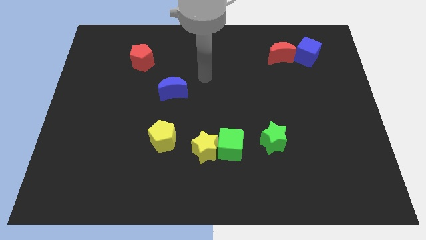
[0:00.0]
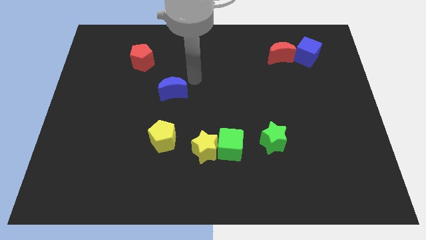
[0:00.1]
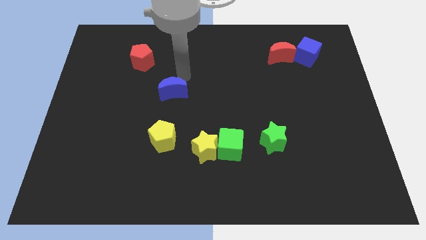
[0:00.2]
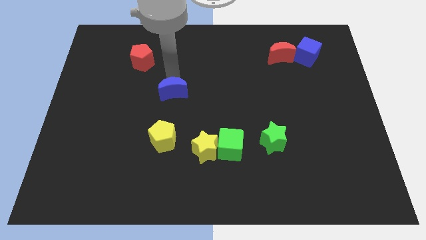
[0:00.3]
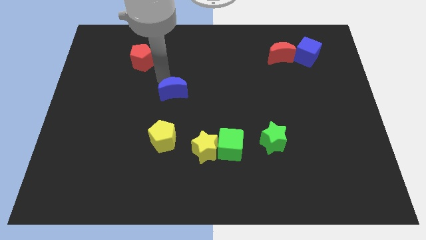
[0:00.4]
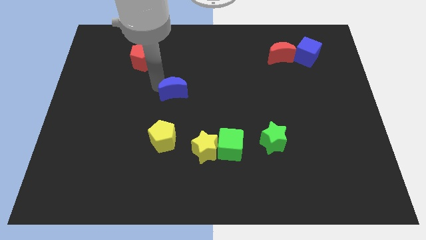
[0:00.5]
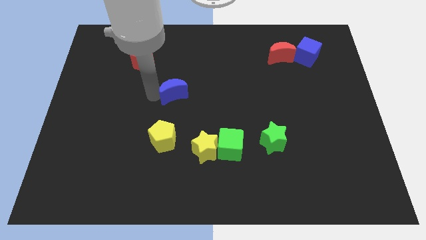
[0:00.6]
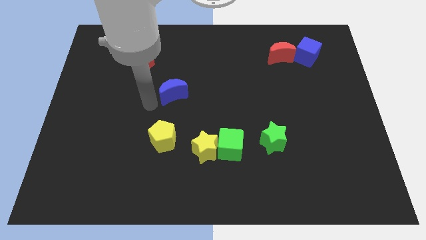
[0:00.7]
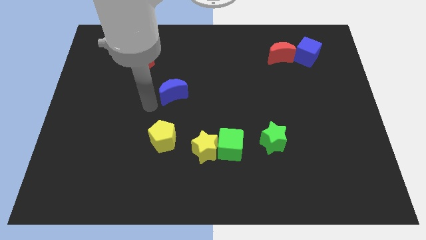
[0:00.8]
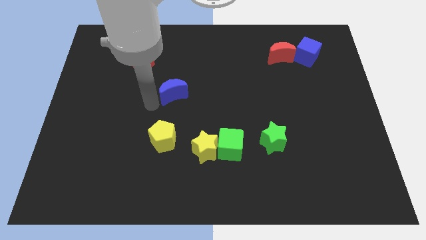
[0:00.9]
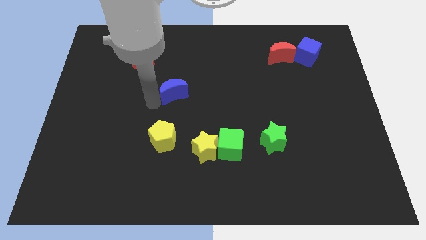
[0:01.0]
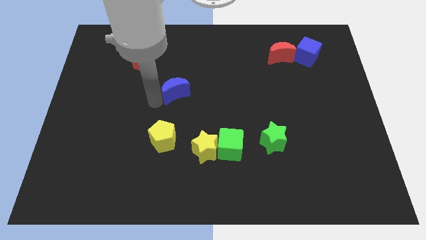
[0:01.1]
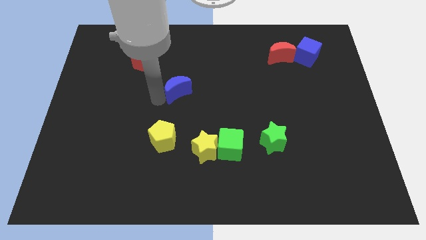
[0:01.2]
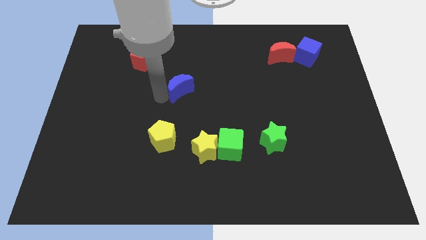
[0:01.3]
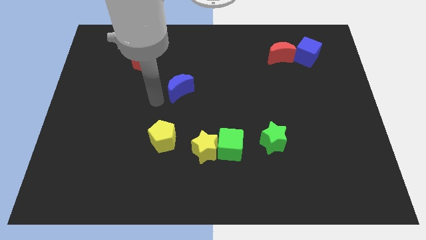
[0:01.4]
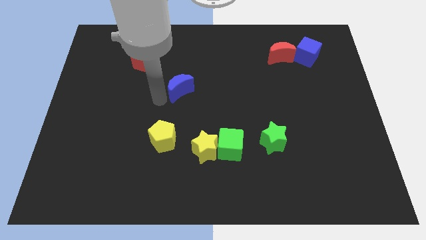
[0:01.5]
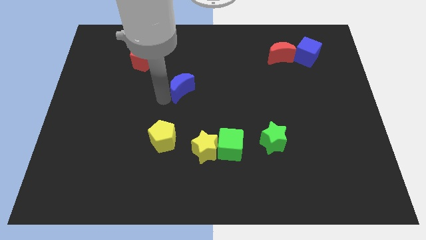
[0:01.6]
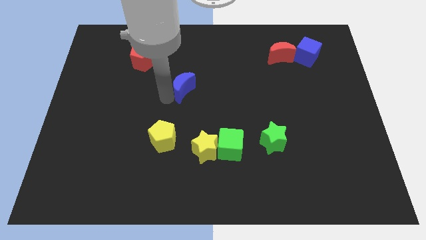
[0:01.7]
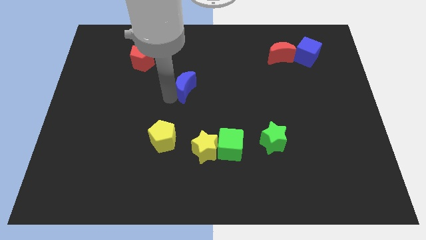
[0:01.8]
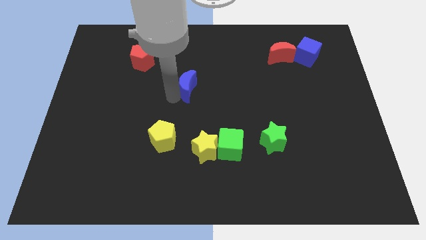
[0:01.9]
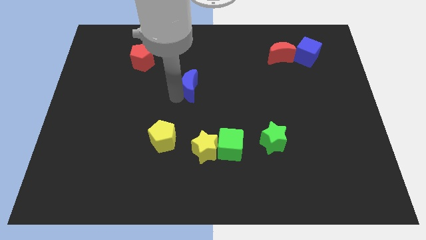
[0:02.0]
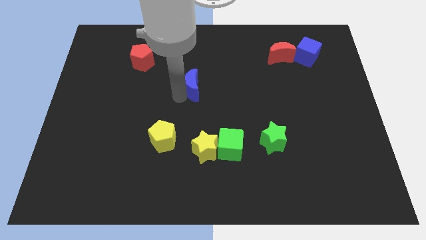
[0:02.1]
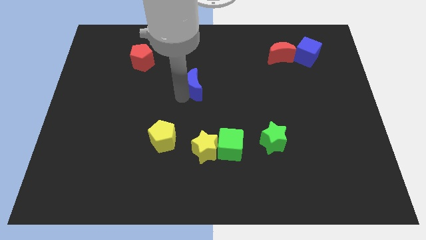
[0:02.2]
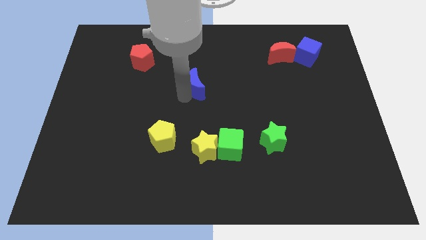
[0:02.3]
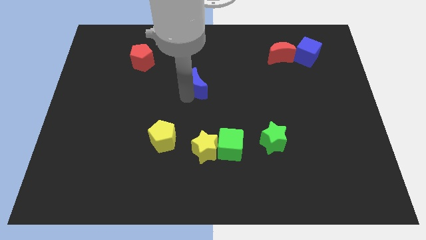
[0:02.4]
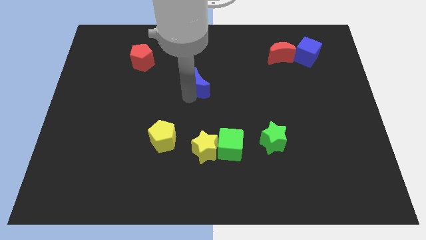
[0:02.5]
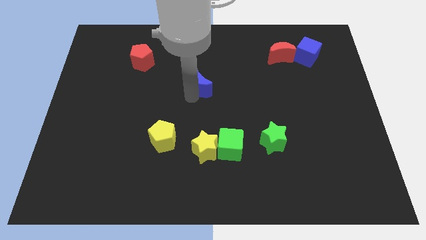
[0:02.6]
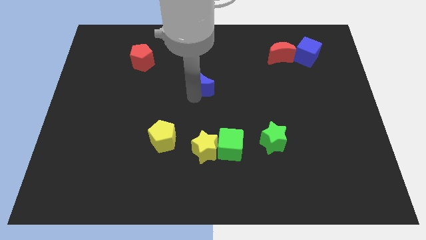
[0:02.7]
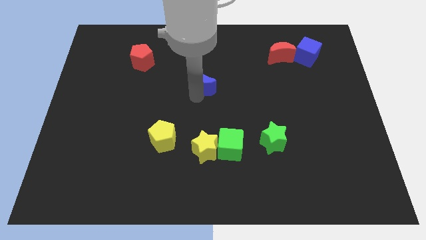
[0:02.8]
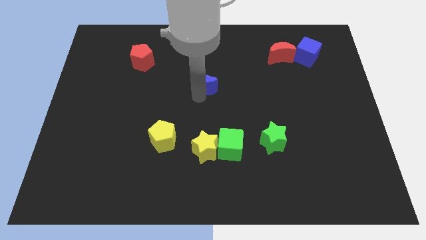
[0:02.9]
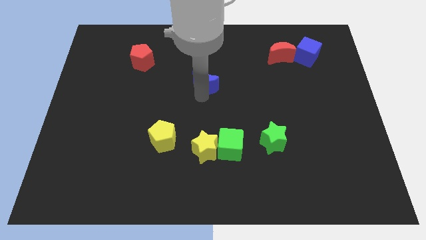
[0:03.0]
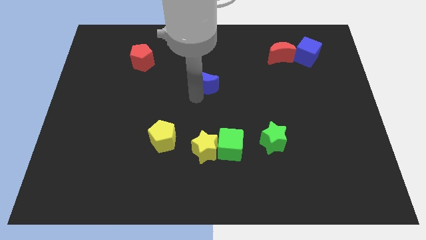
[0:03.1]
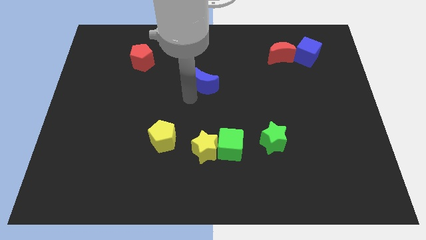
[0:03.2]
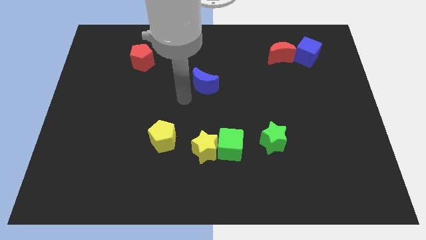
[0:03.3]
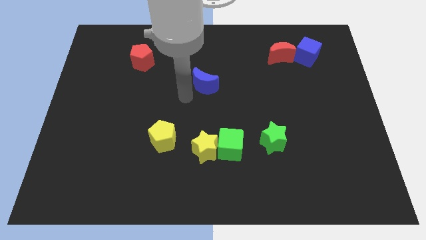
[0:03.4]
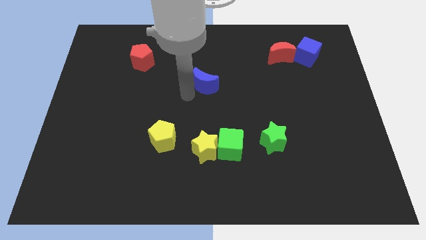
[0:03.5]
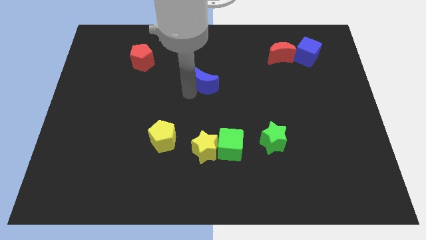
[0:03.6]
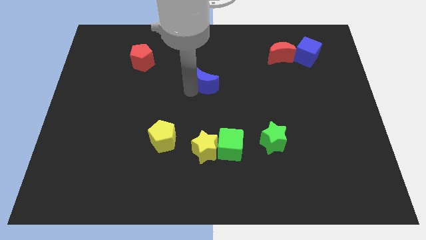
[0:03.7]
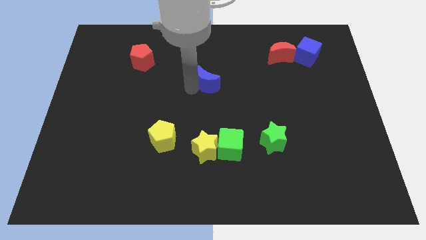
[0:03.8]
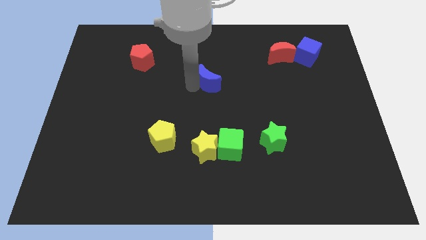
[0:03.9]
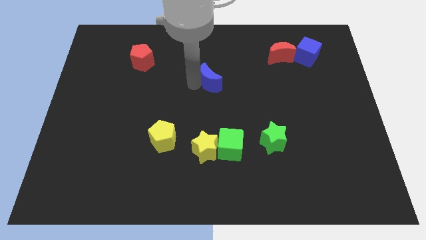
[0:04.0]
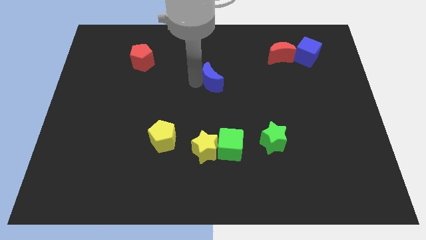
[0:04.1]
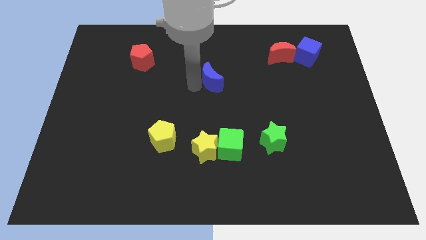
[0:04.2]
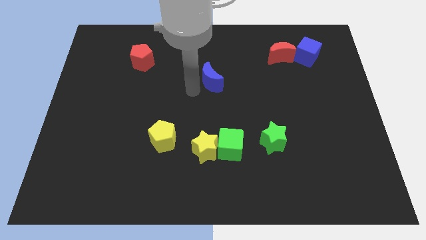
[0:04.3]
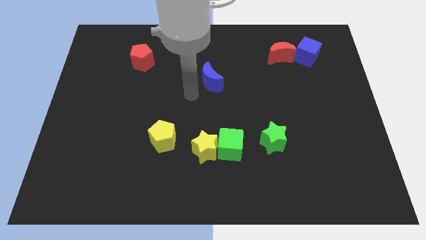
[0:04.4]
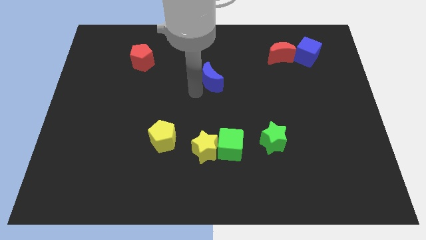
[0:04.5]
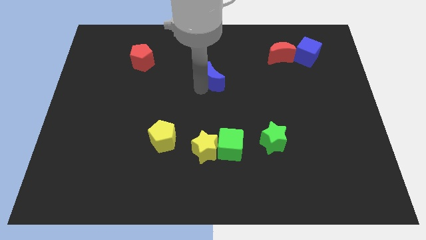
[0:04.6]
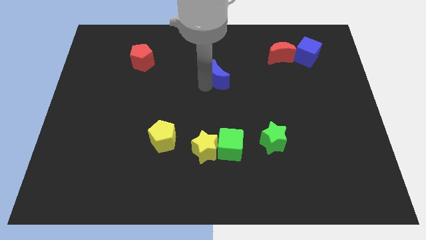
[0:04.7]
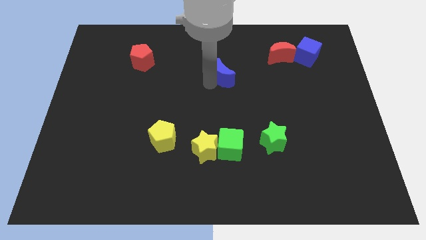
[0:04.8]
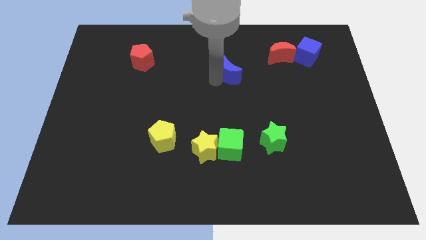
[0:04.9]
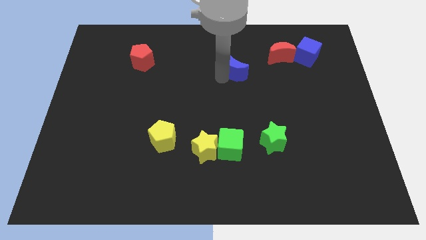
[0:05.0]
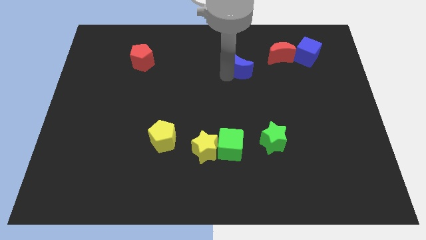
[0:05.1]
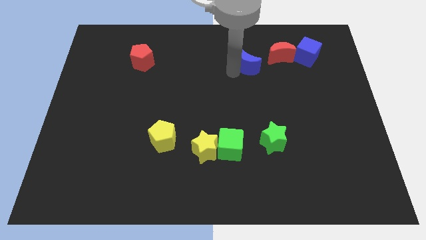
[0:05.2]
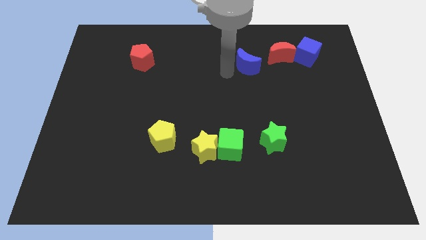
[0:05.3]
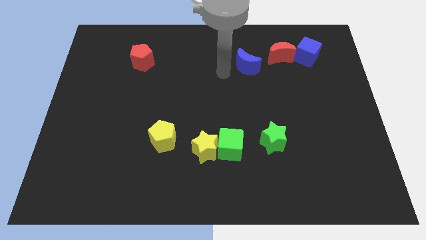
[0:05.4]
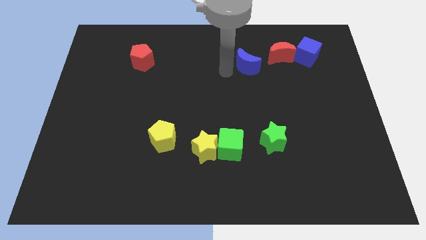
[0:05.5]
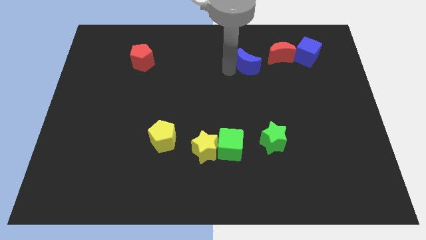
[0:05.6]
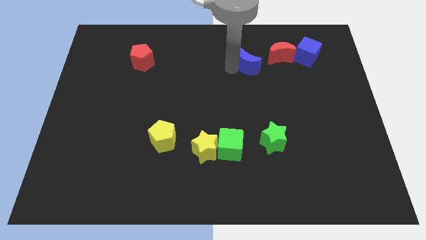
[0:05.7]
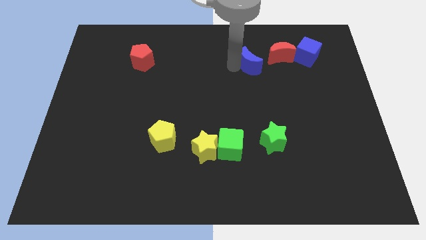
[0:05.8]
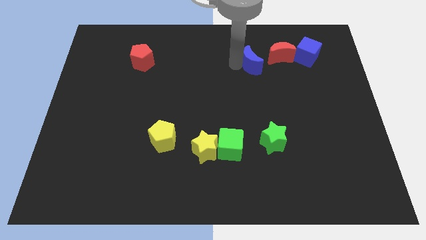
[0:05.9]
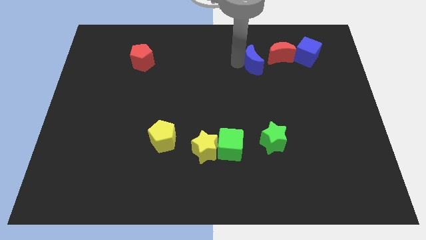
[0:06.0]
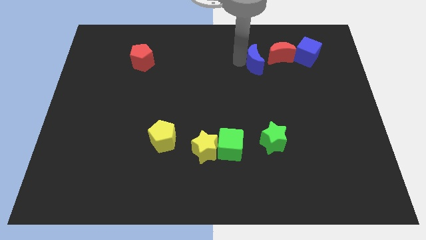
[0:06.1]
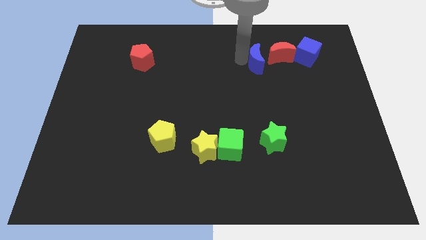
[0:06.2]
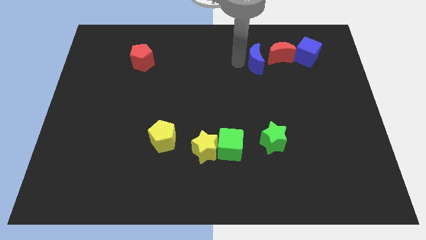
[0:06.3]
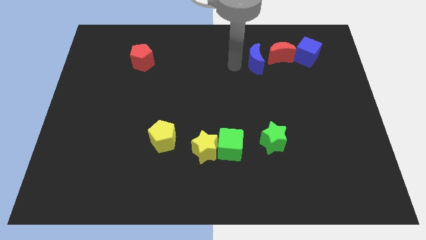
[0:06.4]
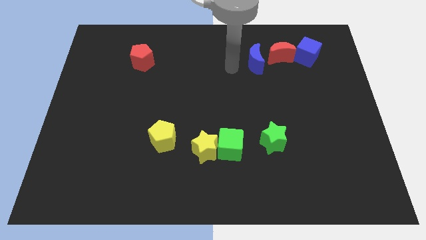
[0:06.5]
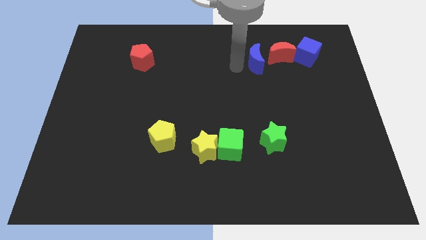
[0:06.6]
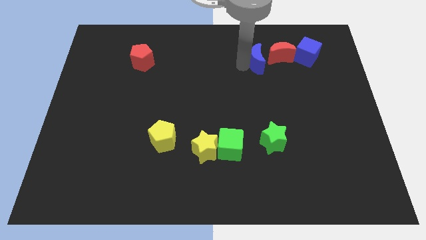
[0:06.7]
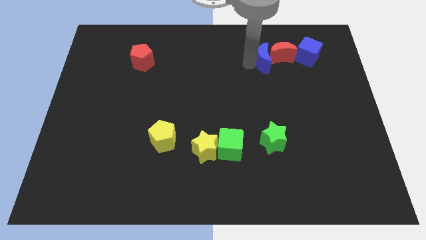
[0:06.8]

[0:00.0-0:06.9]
slide the blue moon towards the red moon

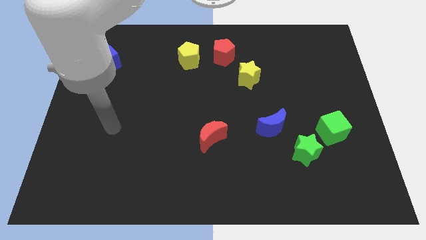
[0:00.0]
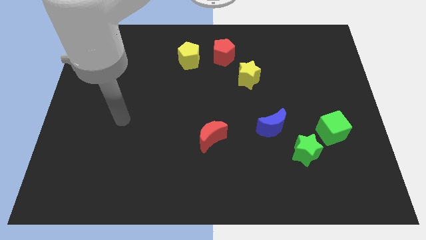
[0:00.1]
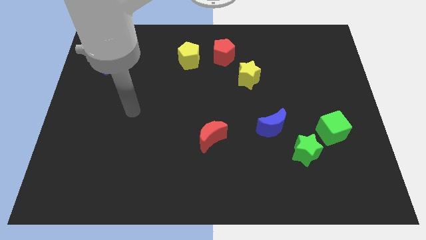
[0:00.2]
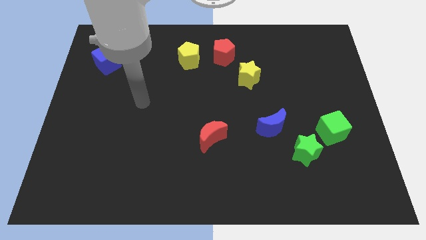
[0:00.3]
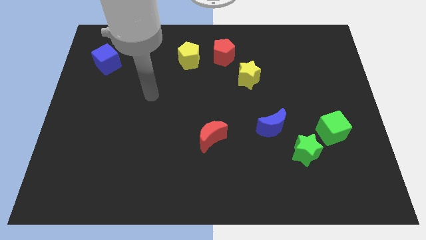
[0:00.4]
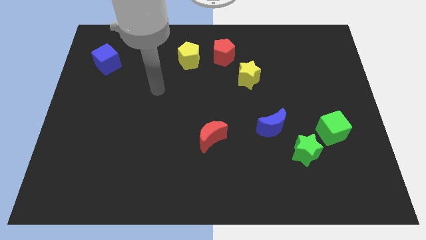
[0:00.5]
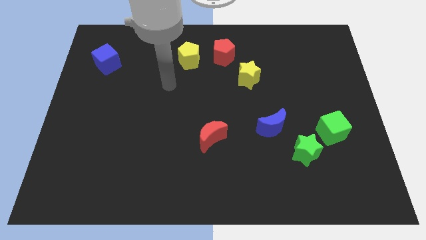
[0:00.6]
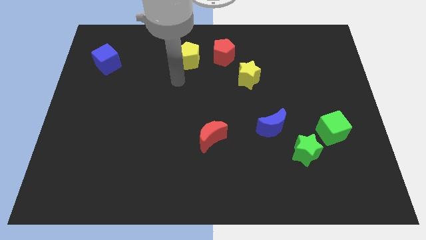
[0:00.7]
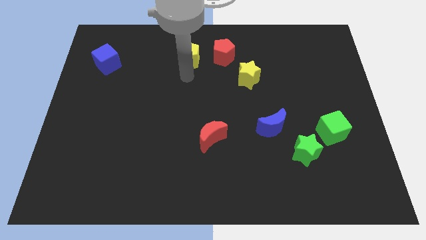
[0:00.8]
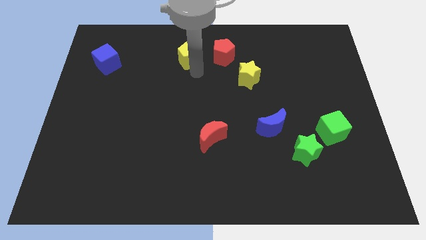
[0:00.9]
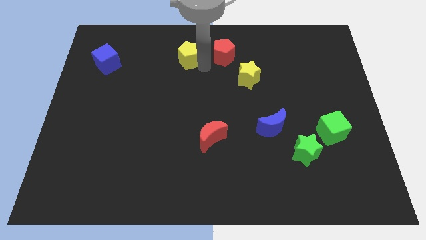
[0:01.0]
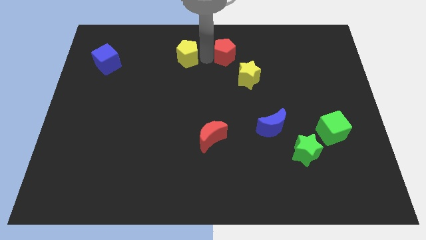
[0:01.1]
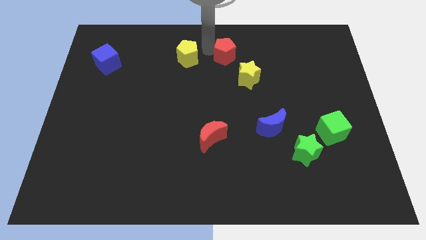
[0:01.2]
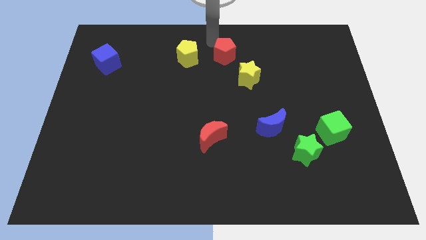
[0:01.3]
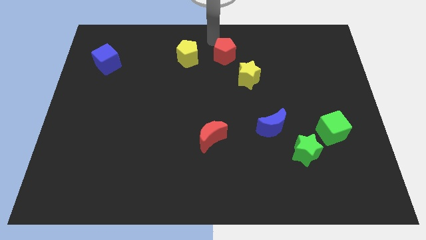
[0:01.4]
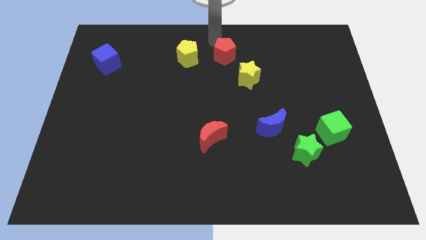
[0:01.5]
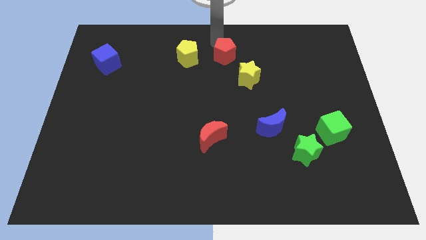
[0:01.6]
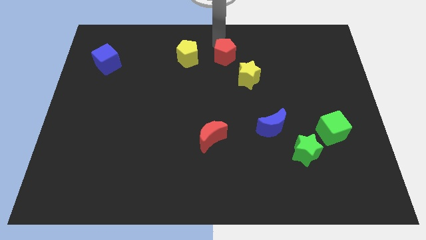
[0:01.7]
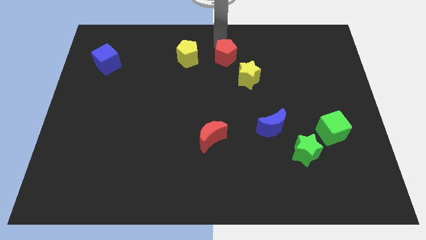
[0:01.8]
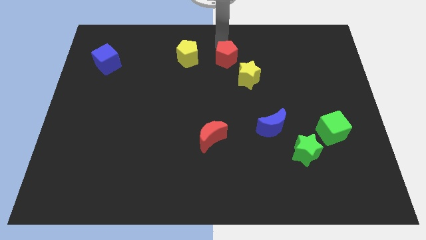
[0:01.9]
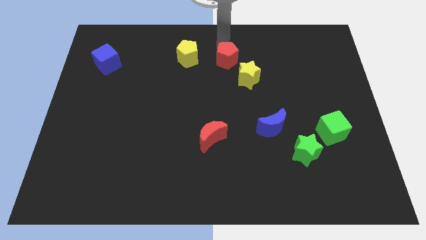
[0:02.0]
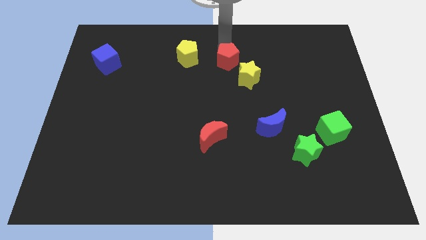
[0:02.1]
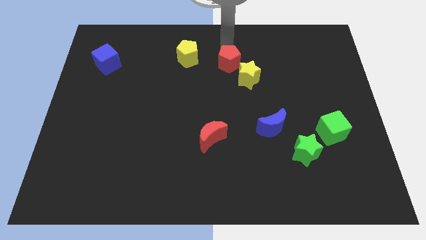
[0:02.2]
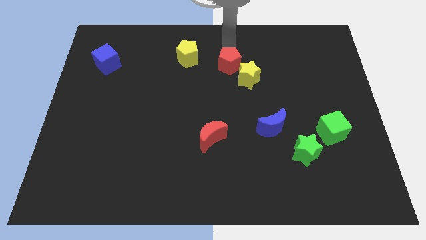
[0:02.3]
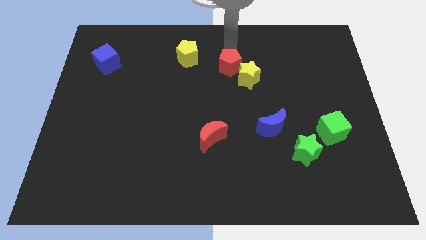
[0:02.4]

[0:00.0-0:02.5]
move the red pentagon to the yellow star
